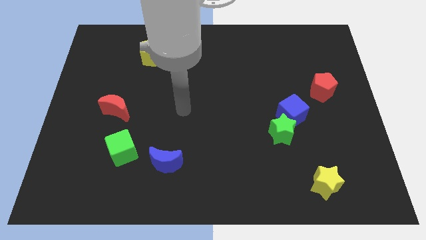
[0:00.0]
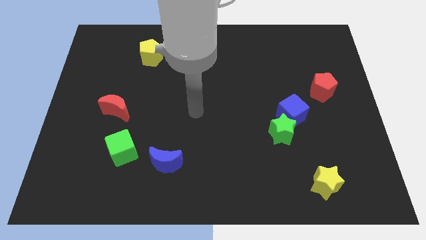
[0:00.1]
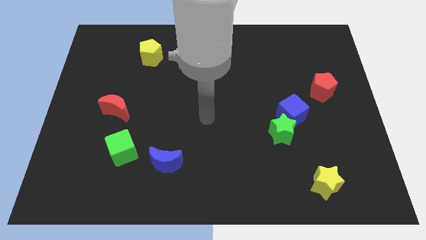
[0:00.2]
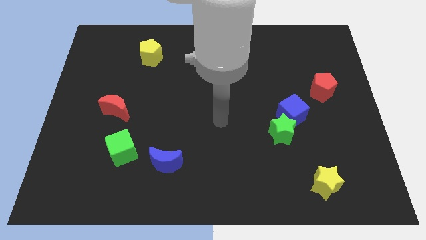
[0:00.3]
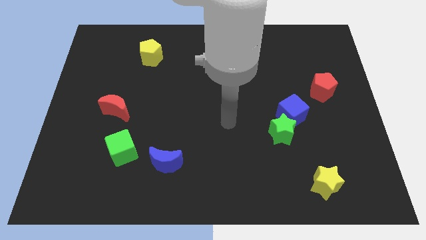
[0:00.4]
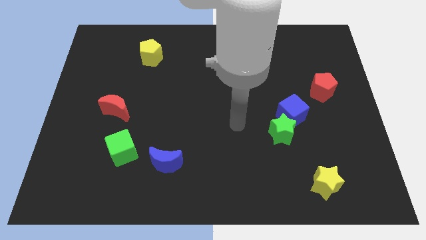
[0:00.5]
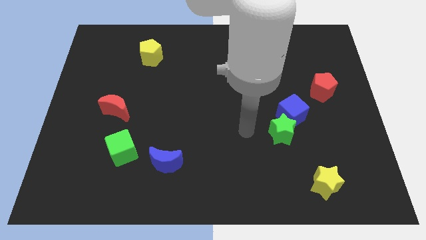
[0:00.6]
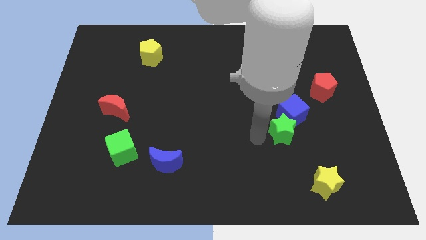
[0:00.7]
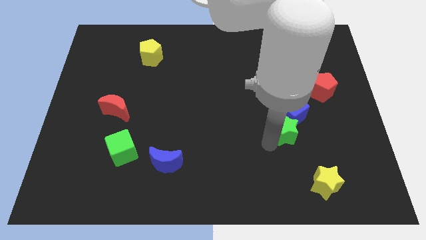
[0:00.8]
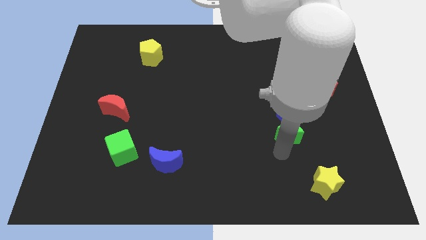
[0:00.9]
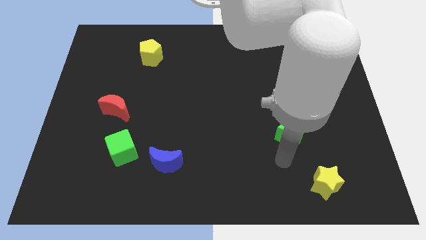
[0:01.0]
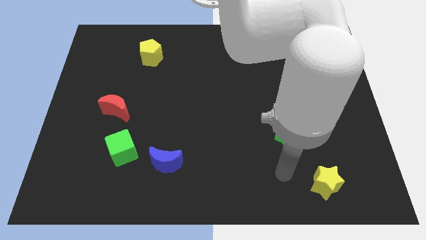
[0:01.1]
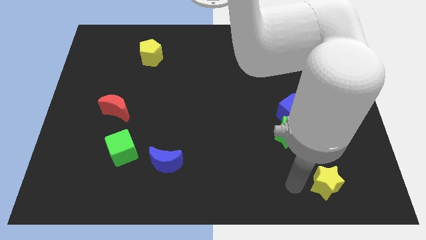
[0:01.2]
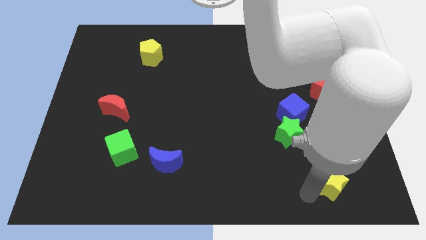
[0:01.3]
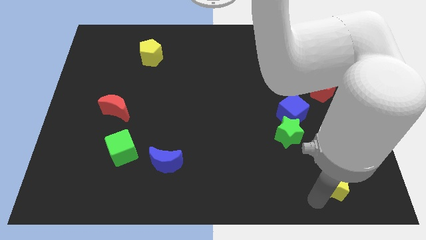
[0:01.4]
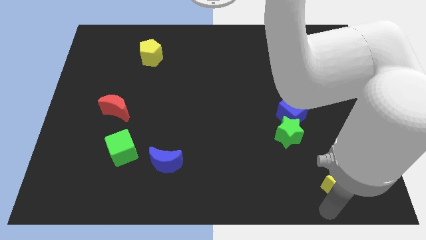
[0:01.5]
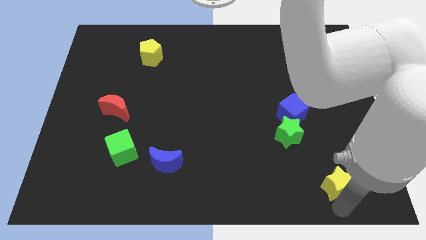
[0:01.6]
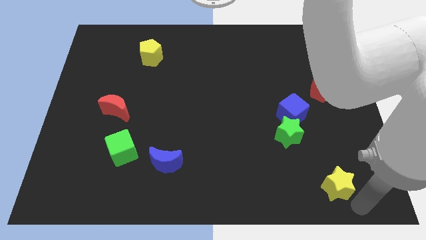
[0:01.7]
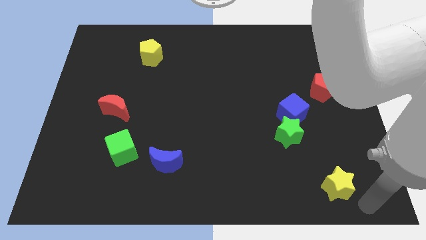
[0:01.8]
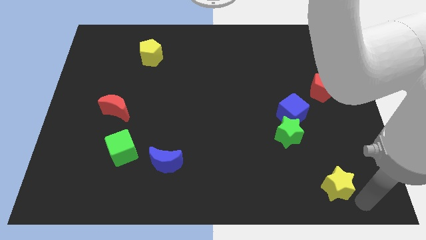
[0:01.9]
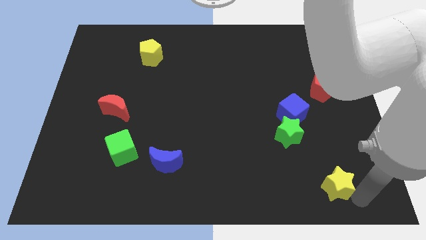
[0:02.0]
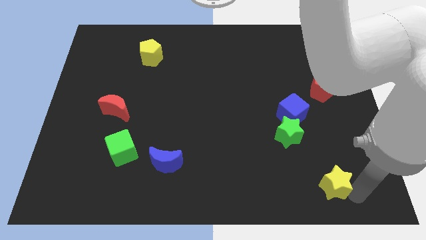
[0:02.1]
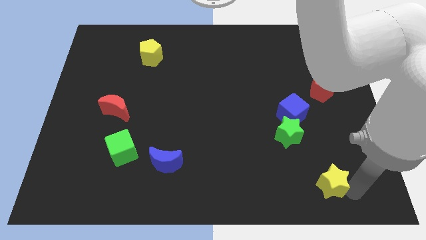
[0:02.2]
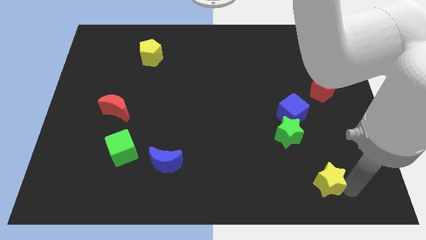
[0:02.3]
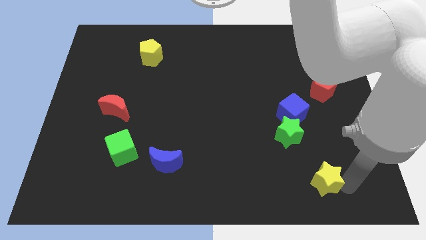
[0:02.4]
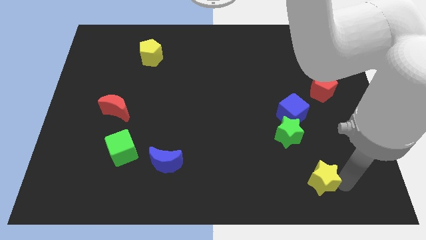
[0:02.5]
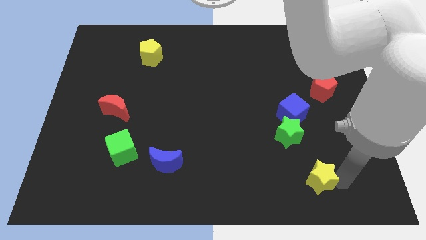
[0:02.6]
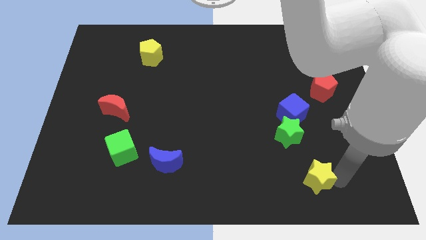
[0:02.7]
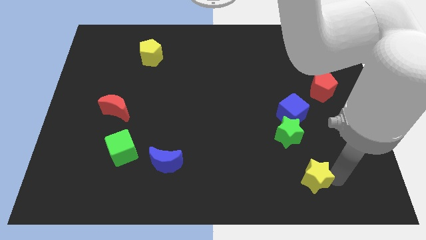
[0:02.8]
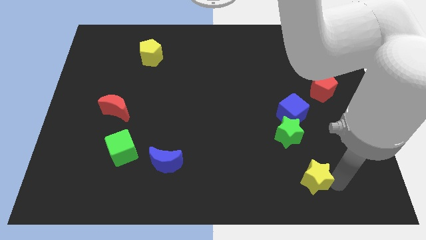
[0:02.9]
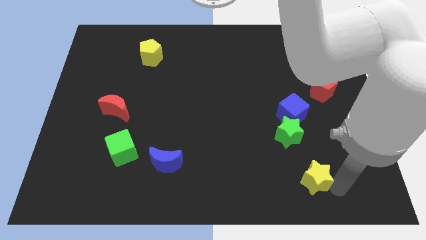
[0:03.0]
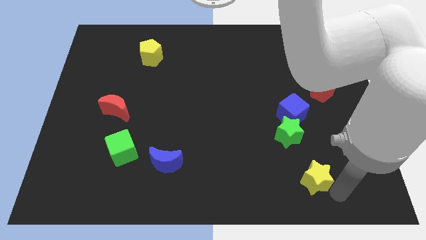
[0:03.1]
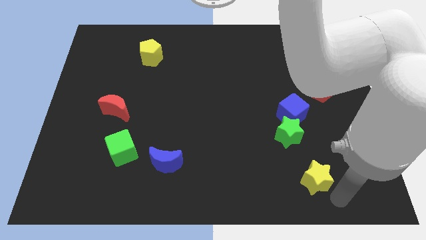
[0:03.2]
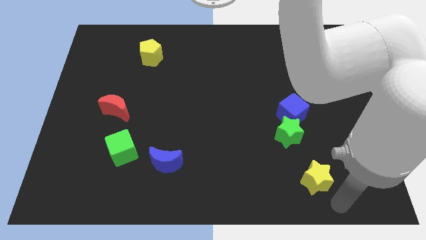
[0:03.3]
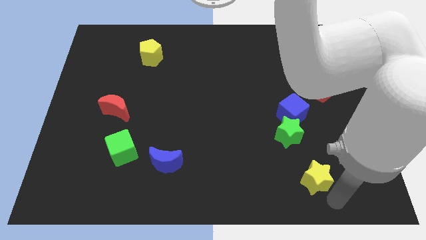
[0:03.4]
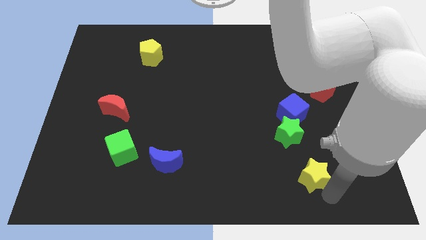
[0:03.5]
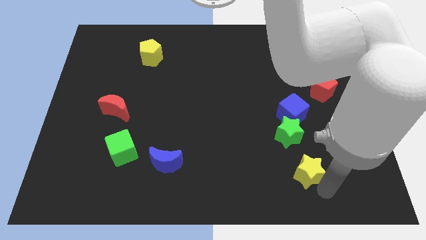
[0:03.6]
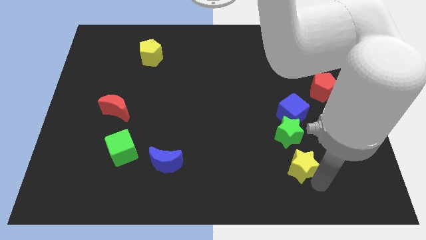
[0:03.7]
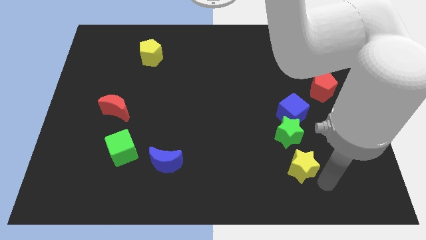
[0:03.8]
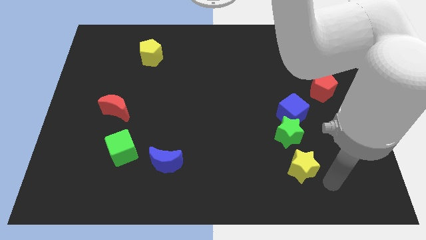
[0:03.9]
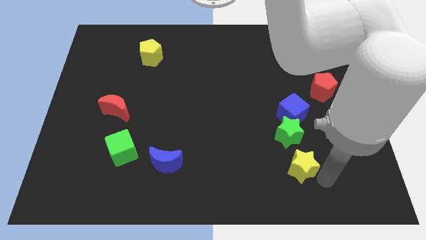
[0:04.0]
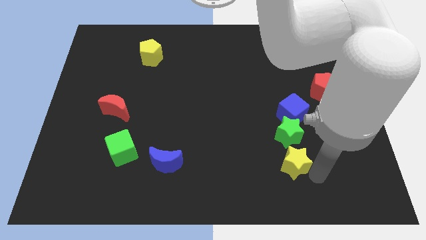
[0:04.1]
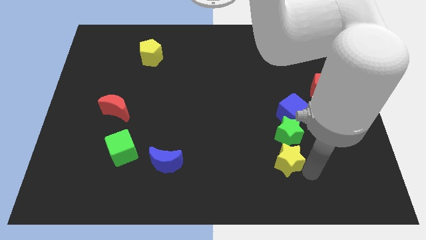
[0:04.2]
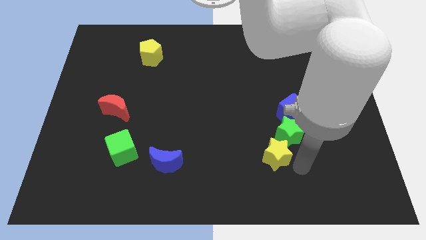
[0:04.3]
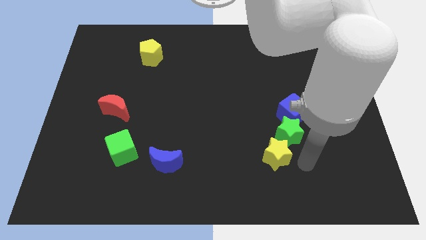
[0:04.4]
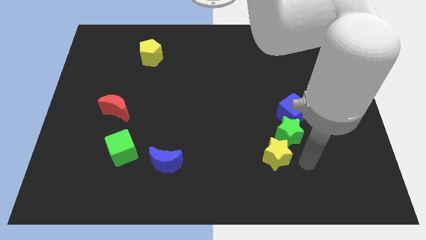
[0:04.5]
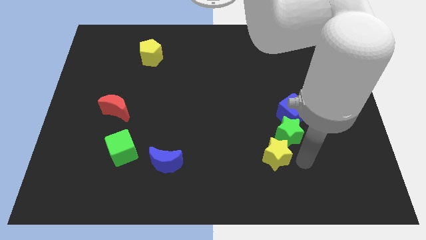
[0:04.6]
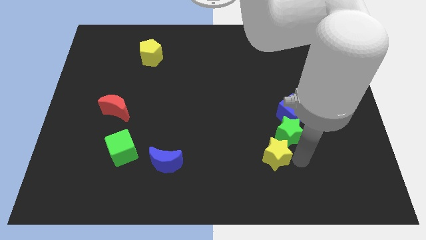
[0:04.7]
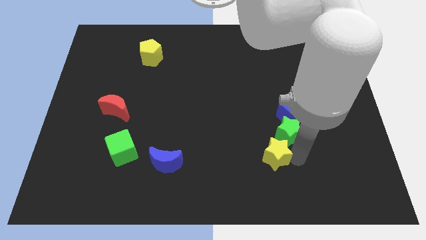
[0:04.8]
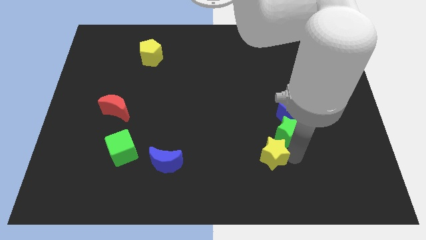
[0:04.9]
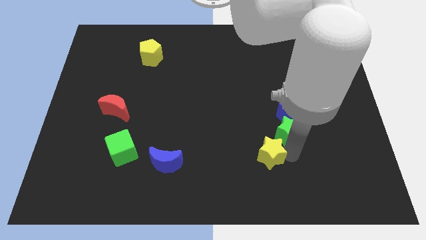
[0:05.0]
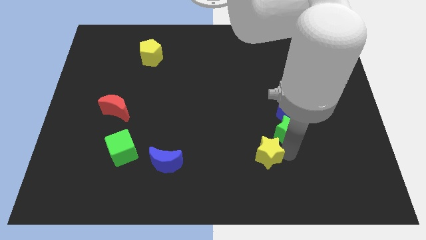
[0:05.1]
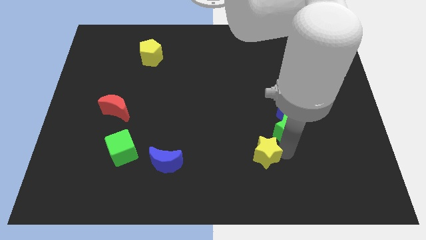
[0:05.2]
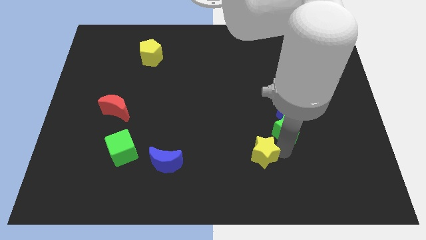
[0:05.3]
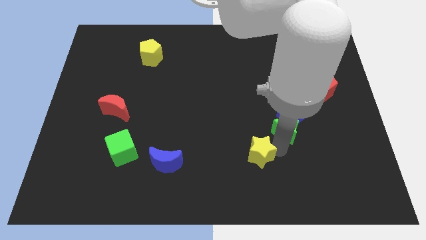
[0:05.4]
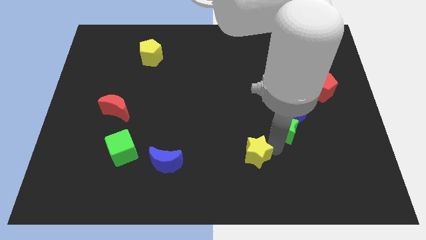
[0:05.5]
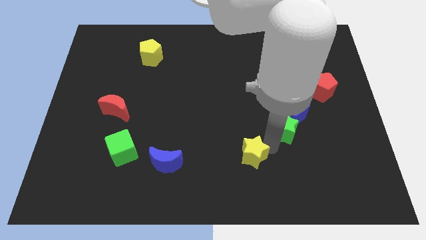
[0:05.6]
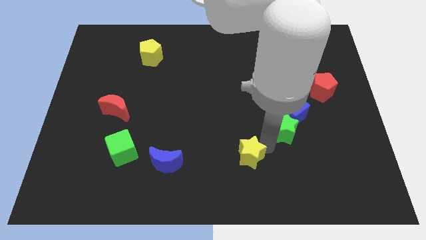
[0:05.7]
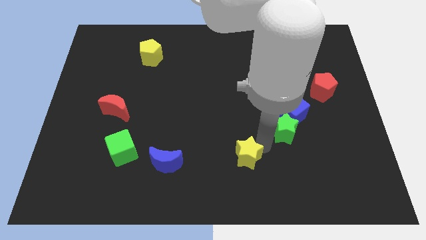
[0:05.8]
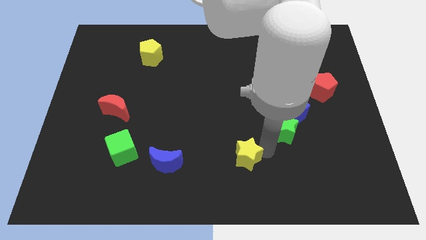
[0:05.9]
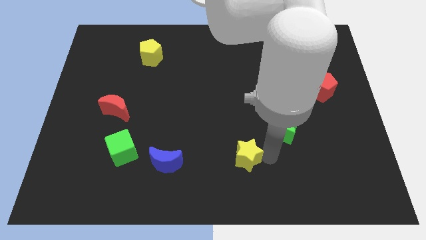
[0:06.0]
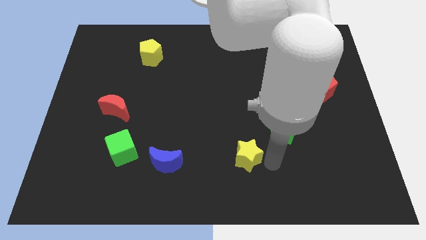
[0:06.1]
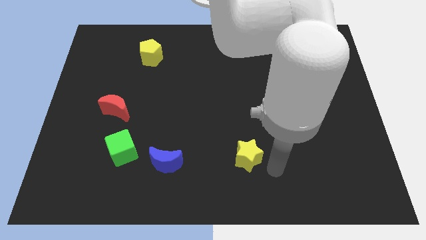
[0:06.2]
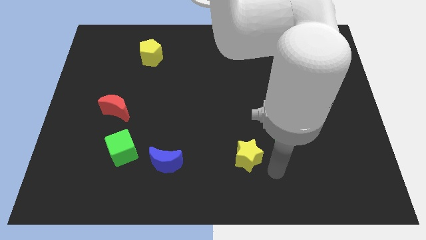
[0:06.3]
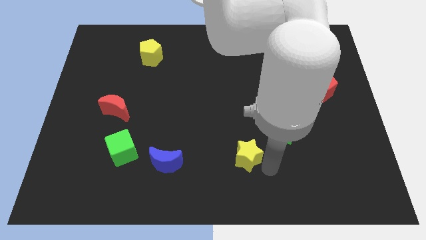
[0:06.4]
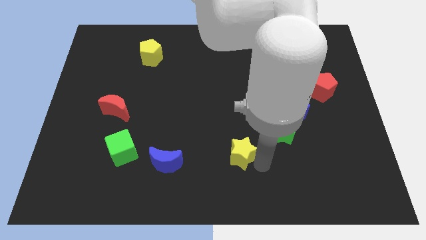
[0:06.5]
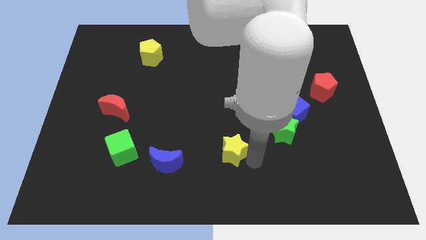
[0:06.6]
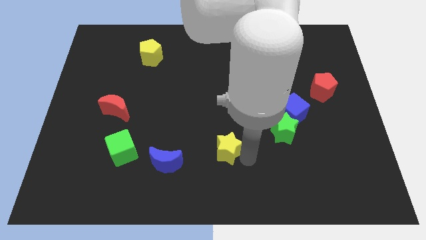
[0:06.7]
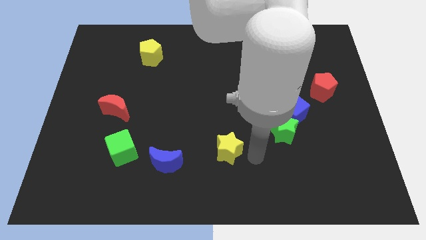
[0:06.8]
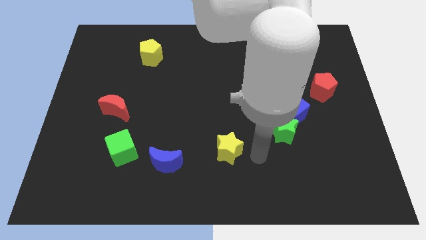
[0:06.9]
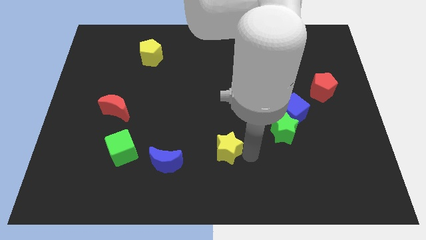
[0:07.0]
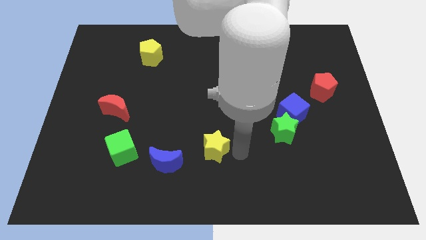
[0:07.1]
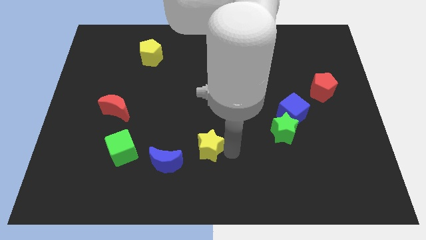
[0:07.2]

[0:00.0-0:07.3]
move the yellow star to the top right side of the blue moon
